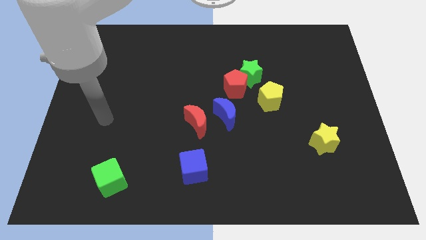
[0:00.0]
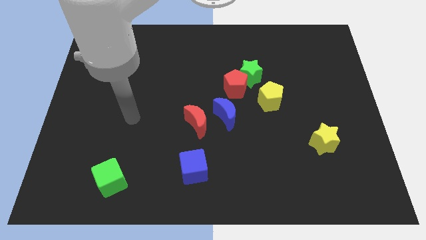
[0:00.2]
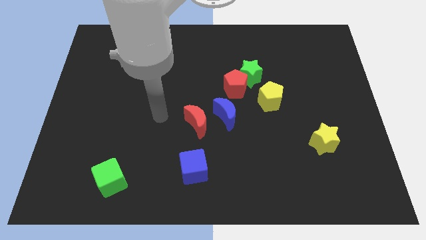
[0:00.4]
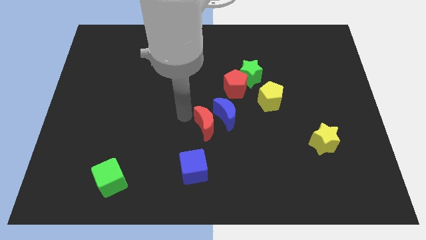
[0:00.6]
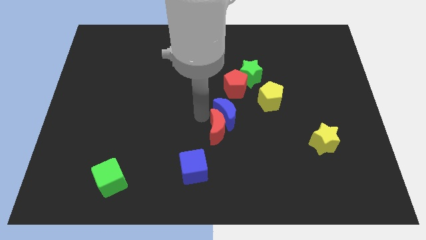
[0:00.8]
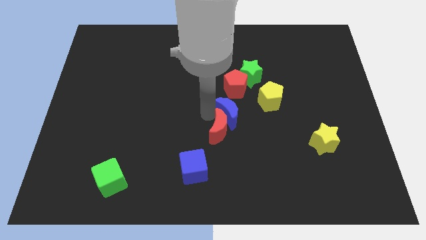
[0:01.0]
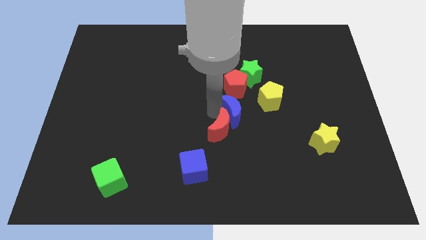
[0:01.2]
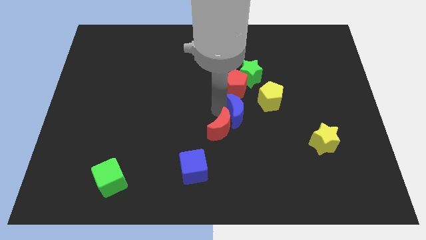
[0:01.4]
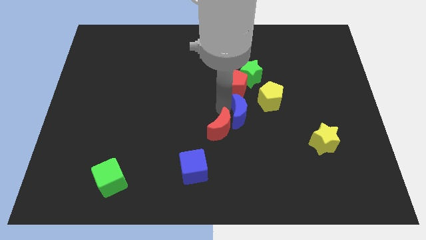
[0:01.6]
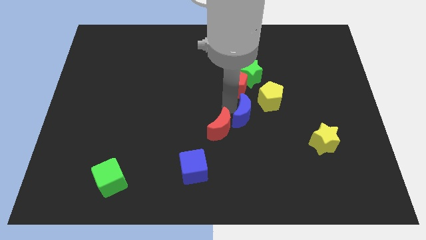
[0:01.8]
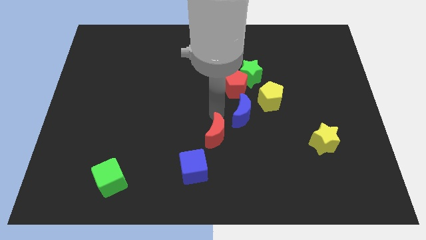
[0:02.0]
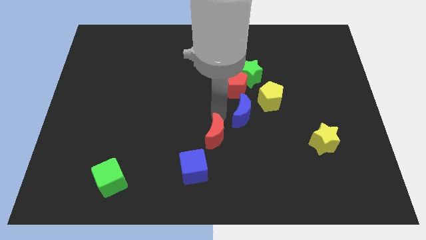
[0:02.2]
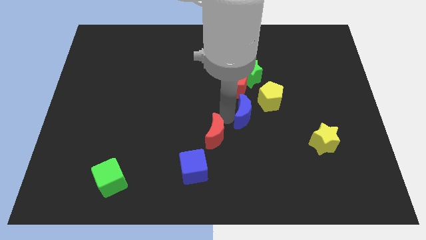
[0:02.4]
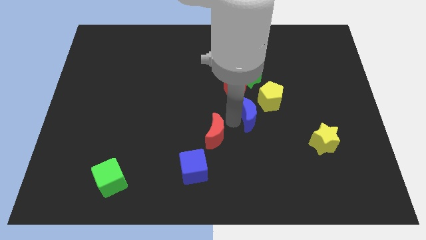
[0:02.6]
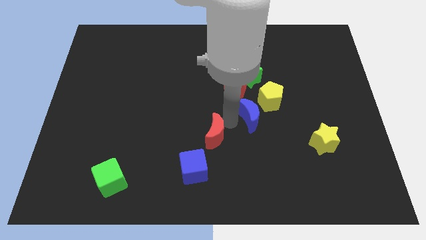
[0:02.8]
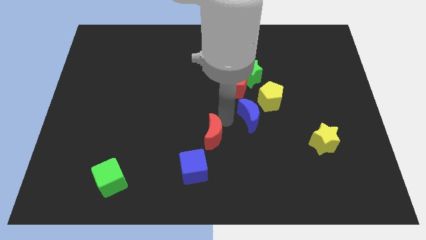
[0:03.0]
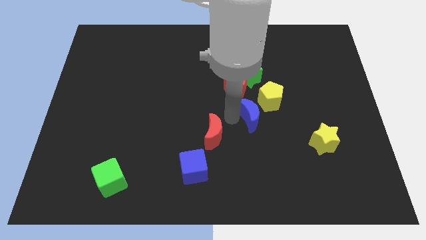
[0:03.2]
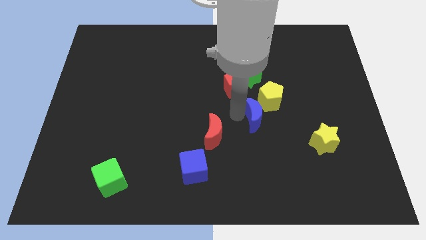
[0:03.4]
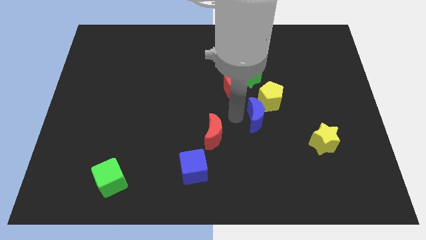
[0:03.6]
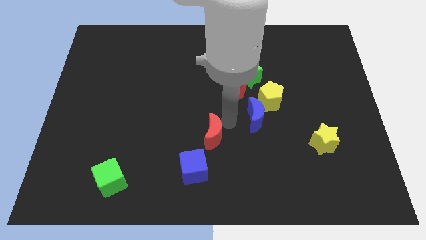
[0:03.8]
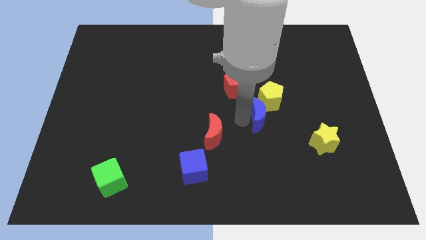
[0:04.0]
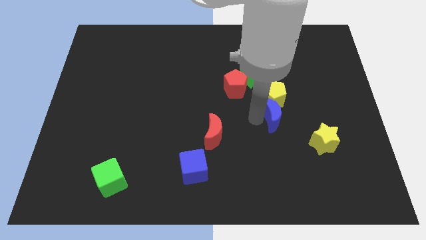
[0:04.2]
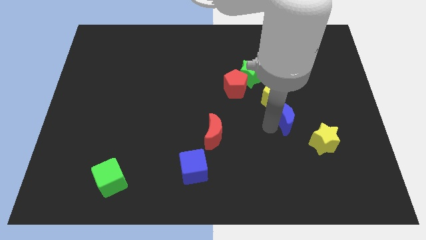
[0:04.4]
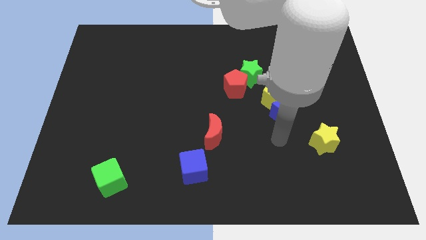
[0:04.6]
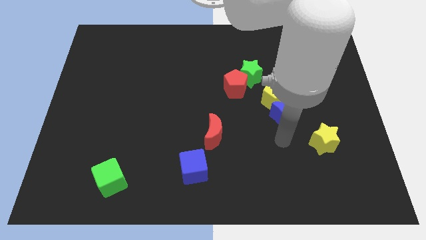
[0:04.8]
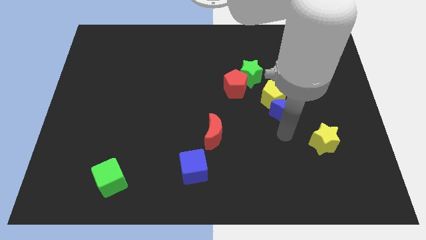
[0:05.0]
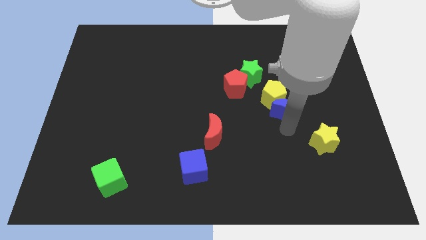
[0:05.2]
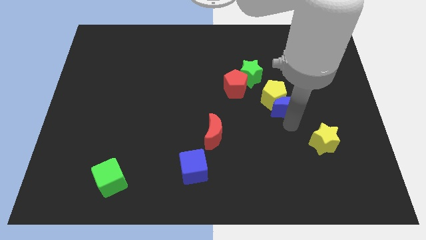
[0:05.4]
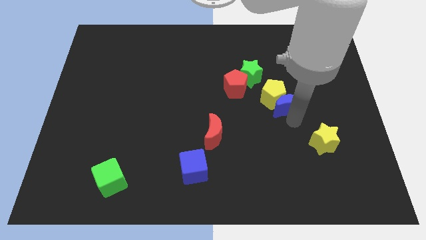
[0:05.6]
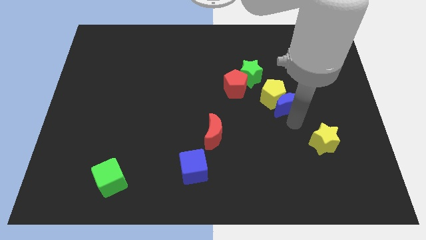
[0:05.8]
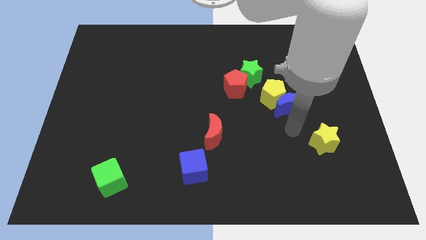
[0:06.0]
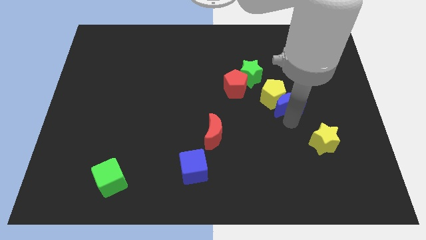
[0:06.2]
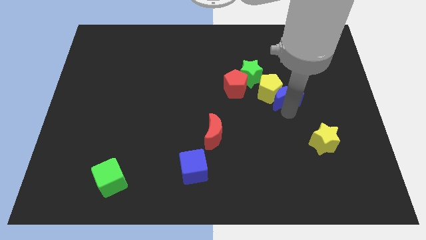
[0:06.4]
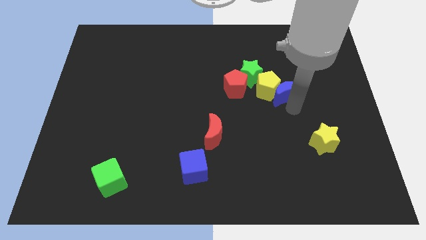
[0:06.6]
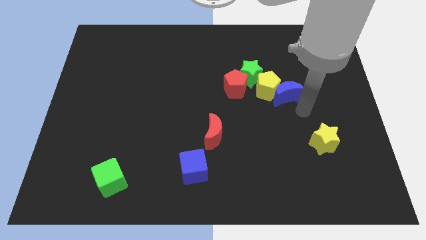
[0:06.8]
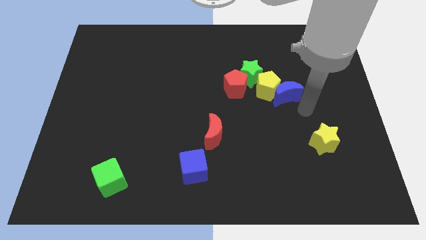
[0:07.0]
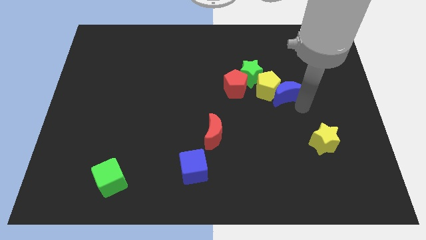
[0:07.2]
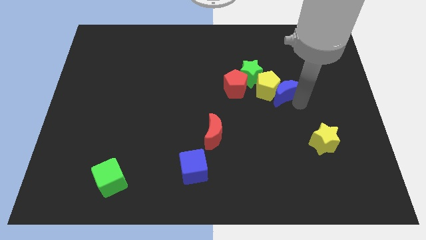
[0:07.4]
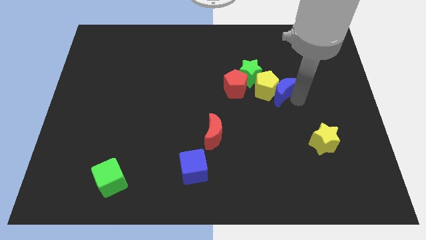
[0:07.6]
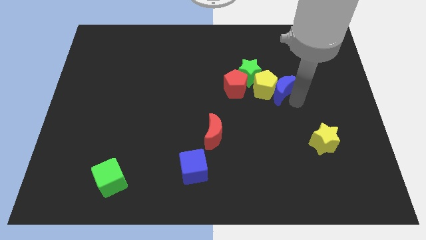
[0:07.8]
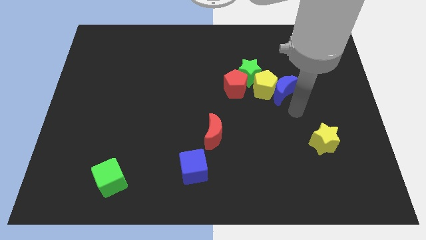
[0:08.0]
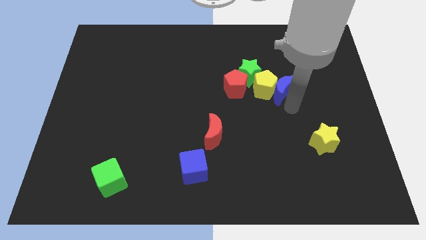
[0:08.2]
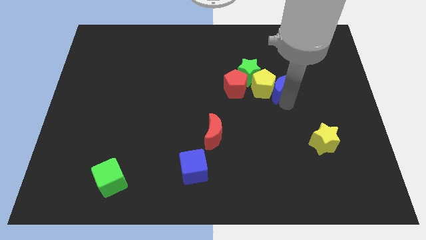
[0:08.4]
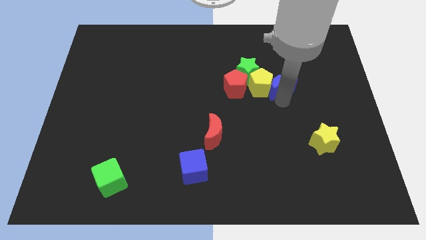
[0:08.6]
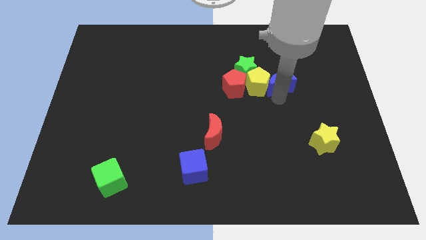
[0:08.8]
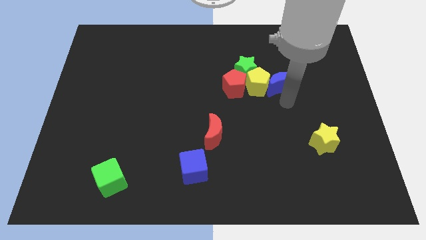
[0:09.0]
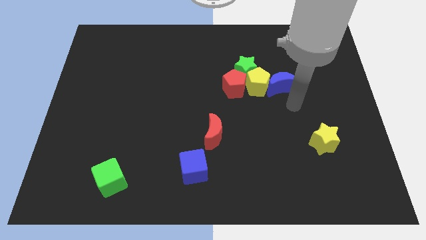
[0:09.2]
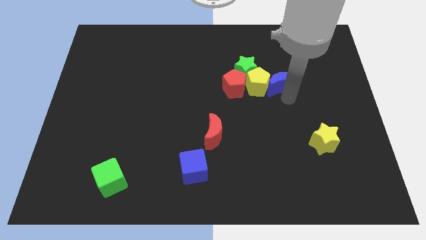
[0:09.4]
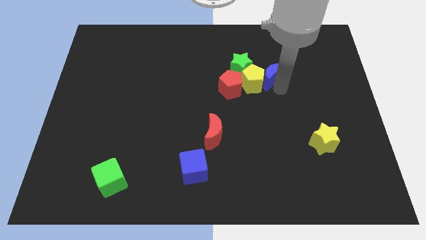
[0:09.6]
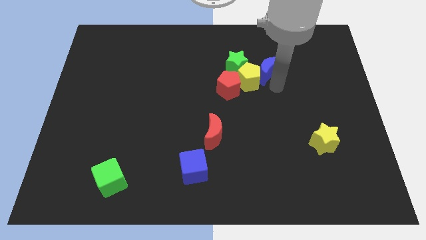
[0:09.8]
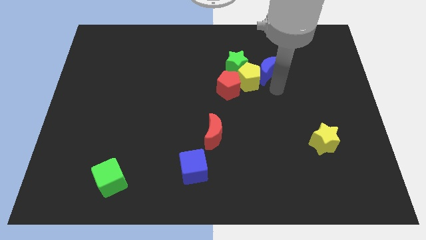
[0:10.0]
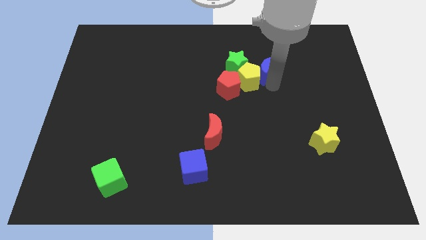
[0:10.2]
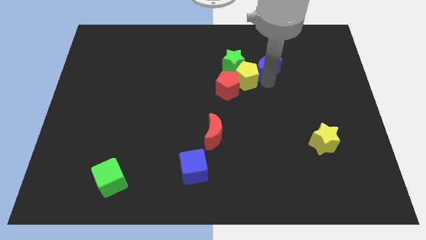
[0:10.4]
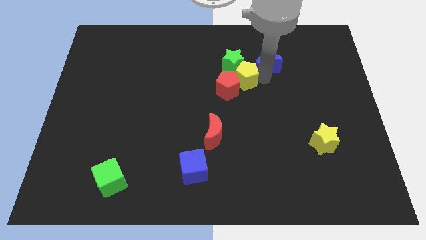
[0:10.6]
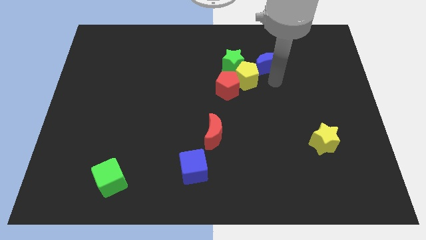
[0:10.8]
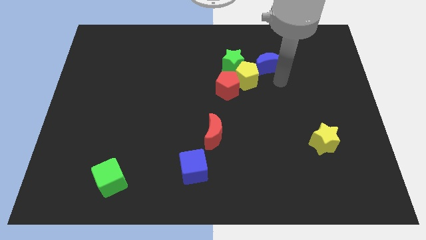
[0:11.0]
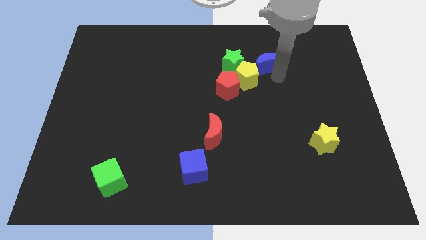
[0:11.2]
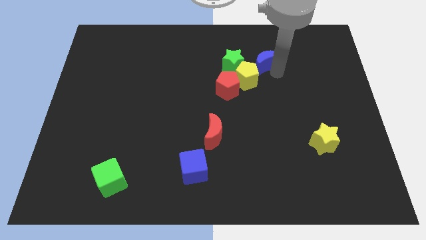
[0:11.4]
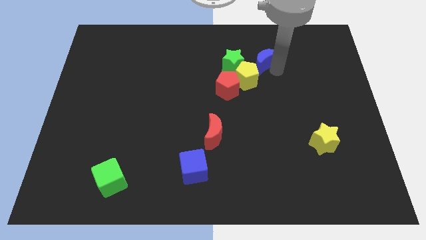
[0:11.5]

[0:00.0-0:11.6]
slide the blue moon to the top right of the green star

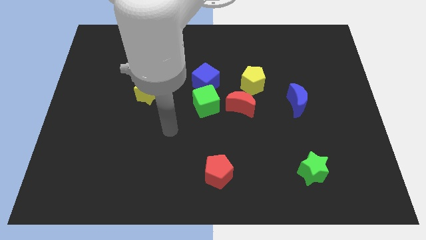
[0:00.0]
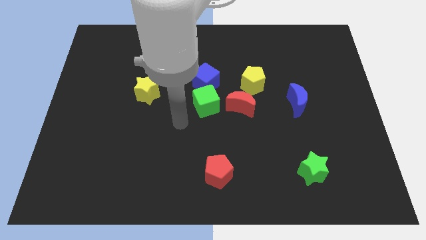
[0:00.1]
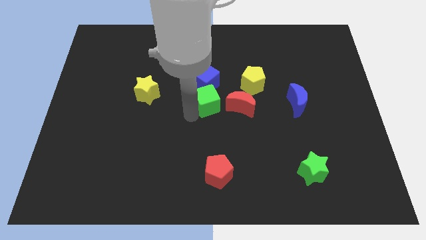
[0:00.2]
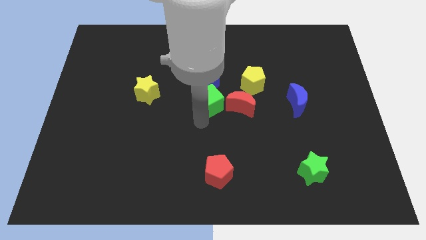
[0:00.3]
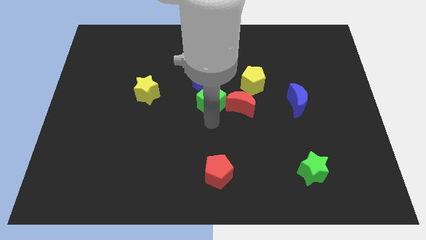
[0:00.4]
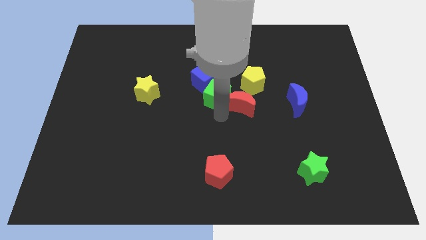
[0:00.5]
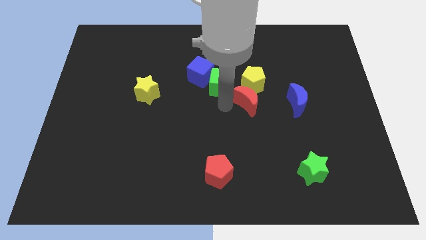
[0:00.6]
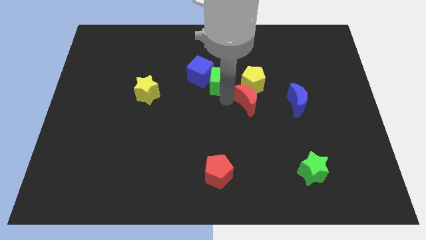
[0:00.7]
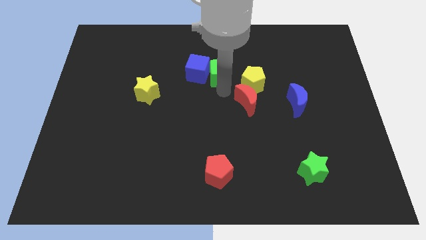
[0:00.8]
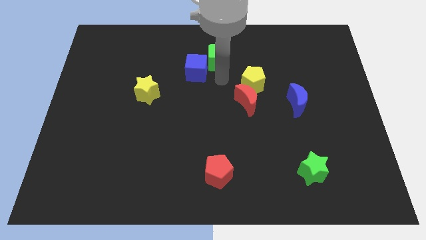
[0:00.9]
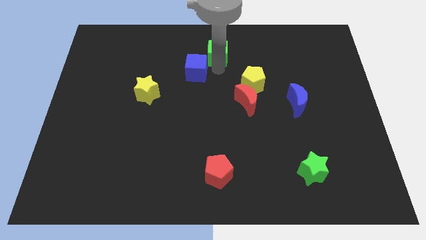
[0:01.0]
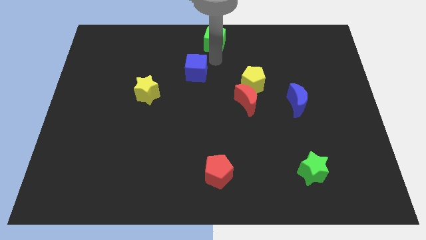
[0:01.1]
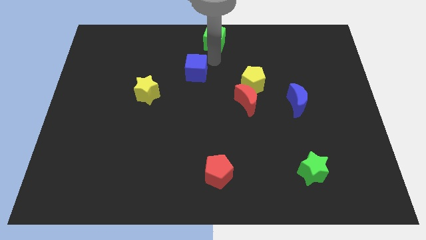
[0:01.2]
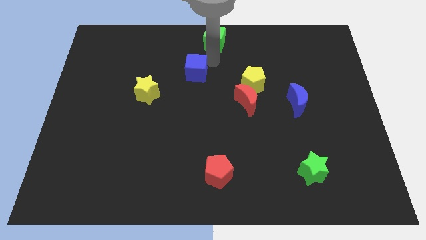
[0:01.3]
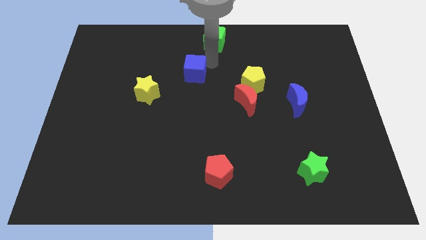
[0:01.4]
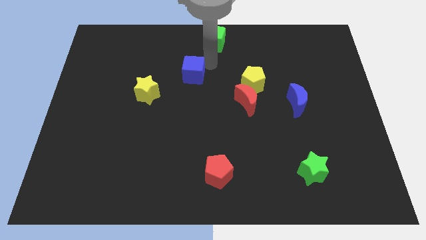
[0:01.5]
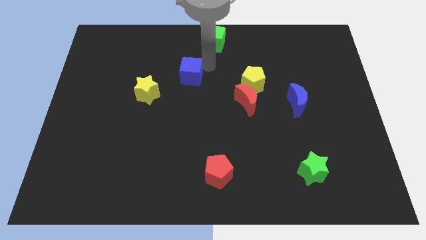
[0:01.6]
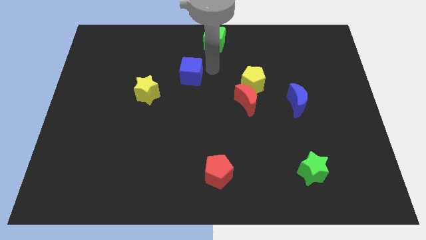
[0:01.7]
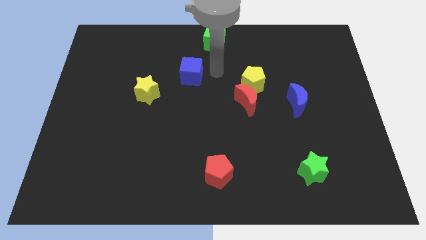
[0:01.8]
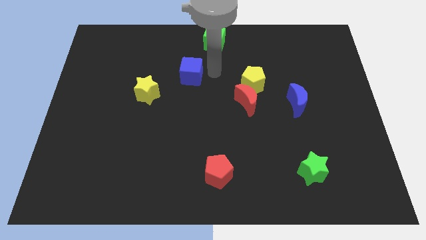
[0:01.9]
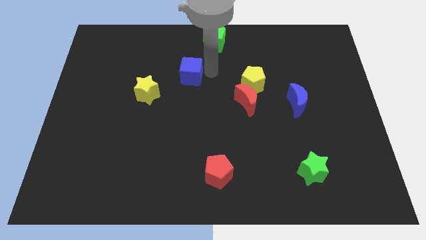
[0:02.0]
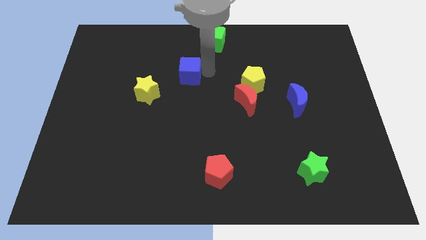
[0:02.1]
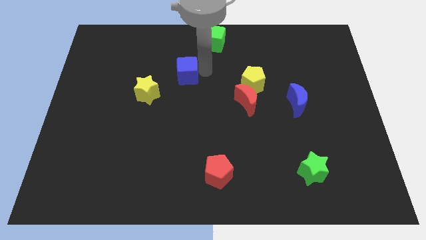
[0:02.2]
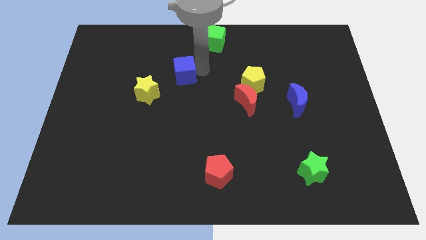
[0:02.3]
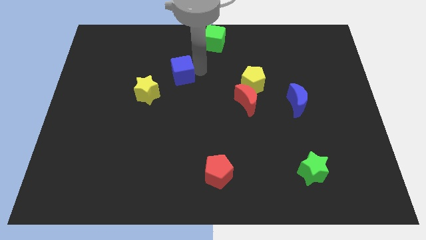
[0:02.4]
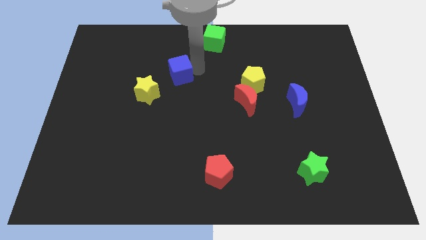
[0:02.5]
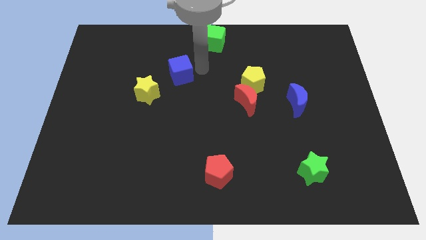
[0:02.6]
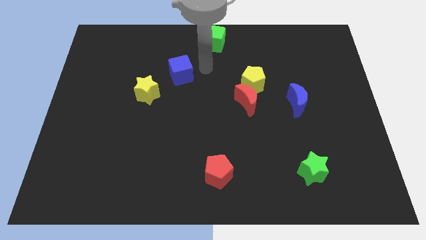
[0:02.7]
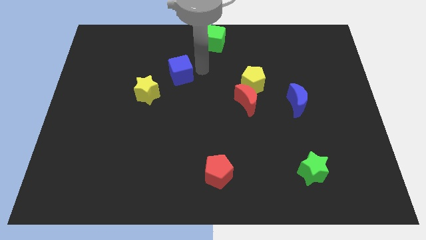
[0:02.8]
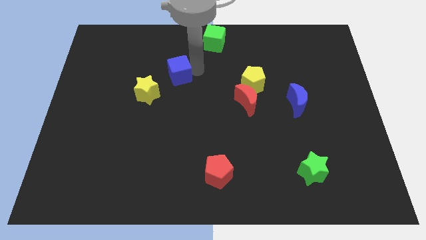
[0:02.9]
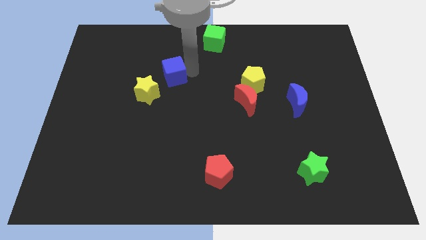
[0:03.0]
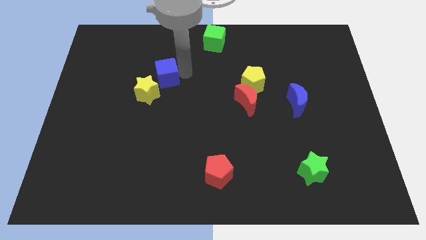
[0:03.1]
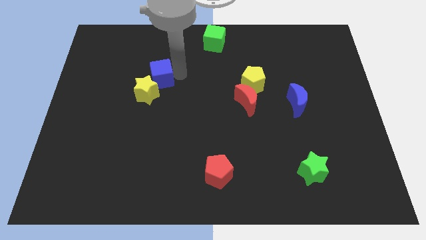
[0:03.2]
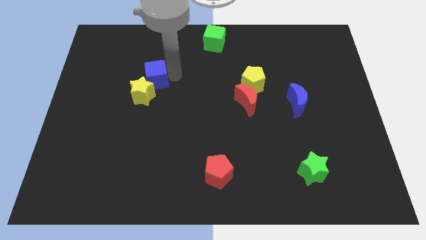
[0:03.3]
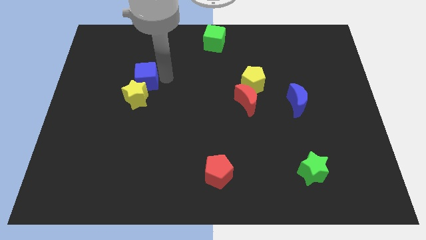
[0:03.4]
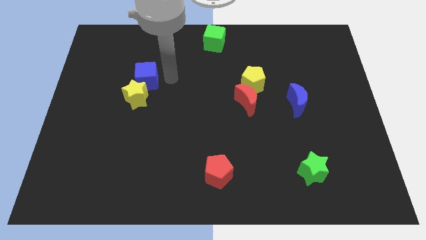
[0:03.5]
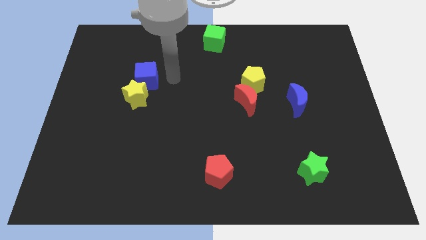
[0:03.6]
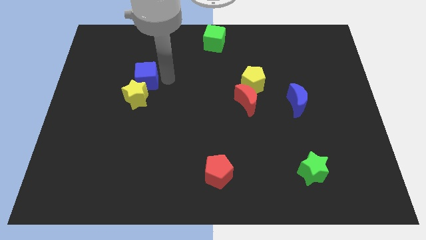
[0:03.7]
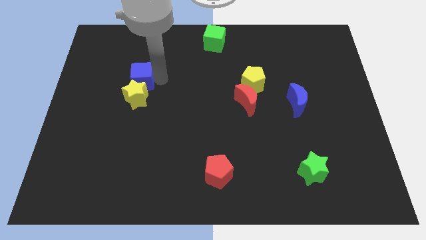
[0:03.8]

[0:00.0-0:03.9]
slide the blue cube to the top left of the yellow star
